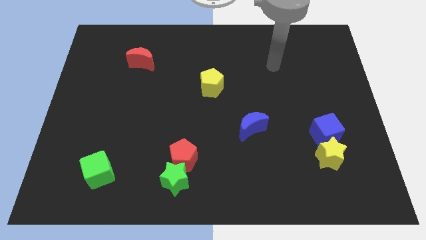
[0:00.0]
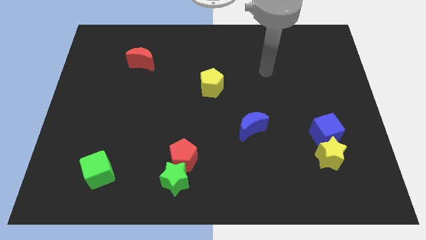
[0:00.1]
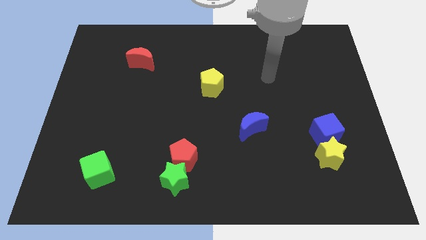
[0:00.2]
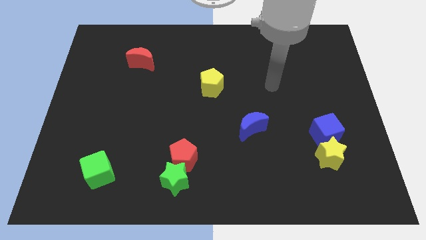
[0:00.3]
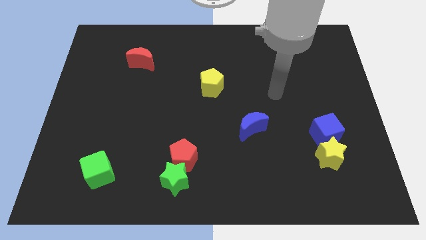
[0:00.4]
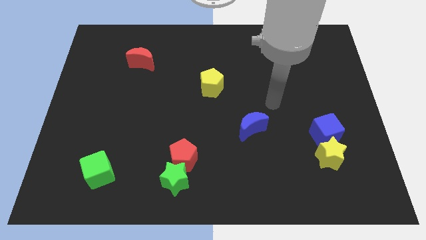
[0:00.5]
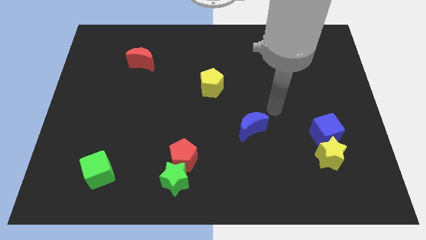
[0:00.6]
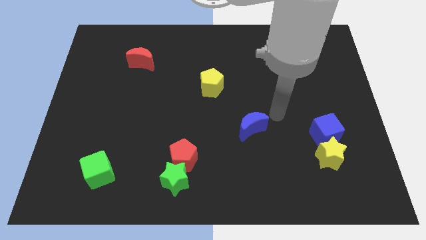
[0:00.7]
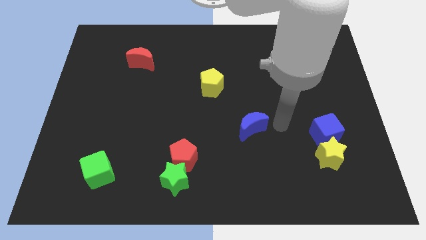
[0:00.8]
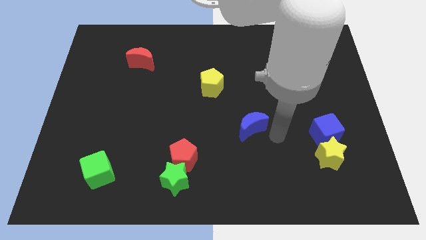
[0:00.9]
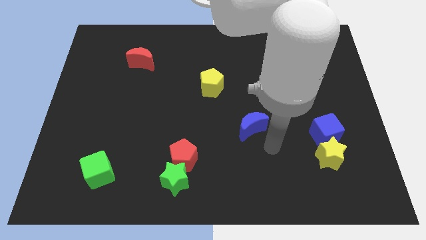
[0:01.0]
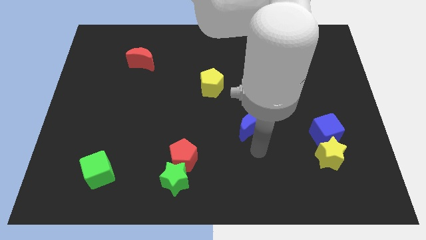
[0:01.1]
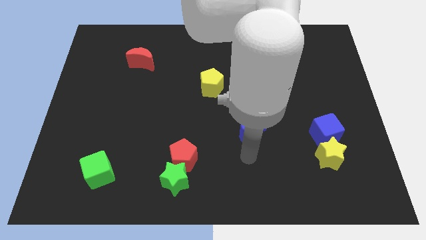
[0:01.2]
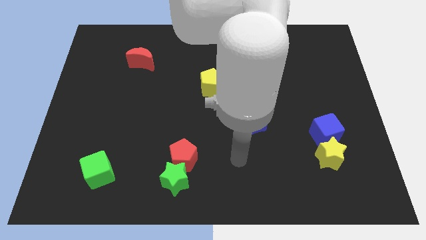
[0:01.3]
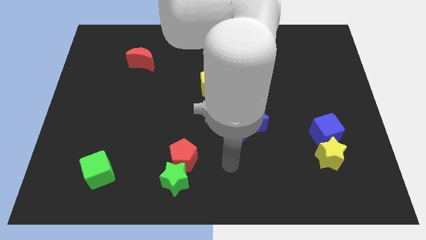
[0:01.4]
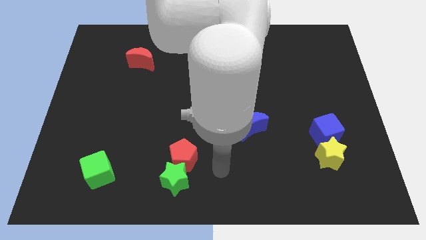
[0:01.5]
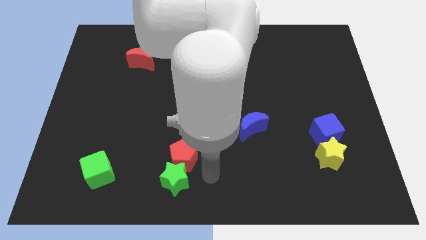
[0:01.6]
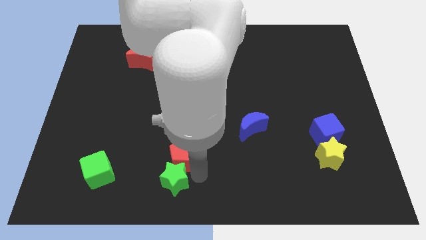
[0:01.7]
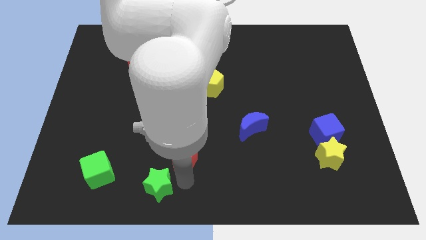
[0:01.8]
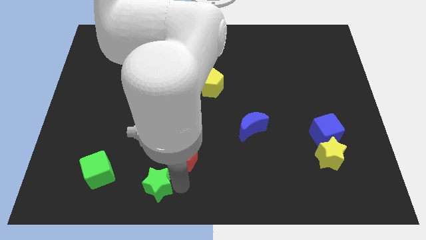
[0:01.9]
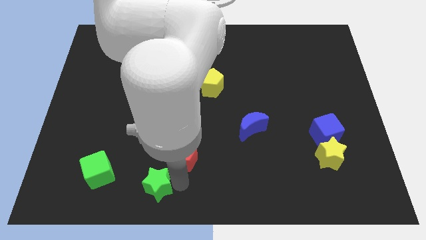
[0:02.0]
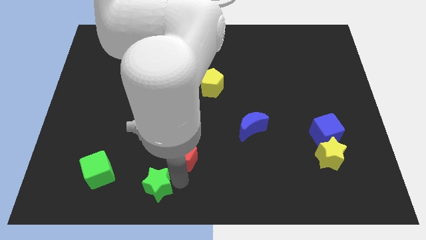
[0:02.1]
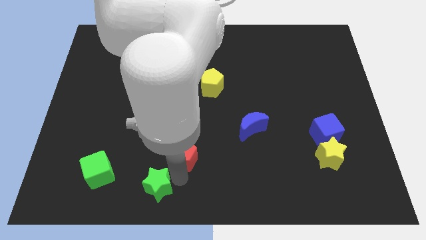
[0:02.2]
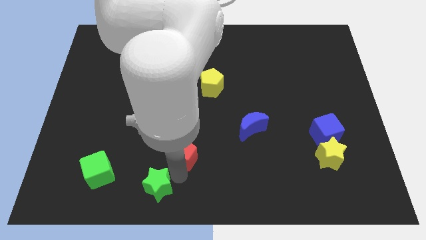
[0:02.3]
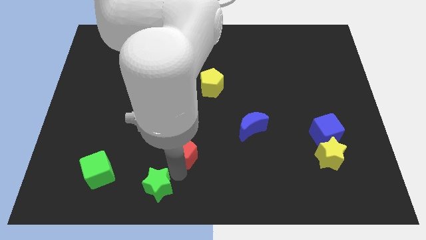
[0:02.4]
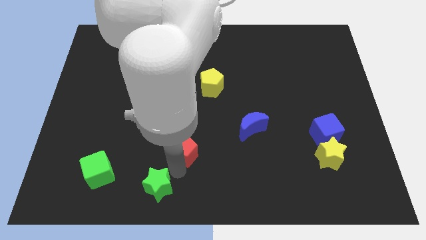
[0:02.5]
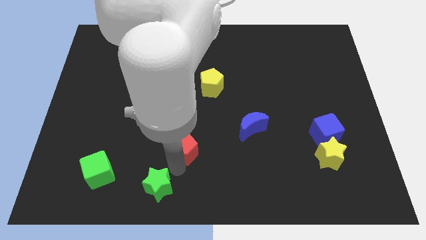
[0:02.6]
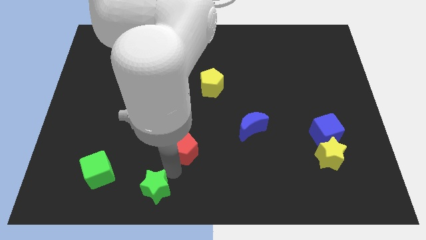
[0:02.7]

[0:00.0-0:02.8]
pull the red pentagon apart from the green star

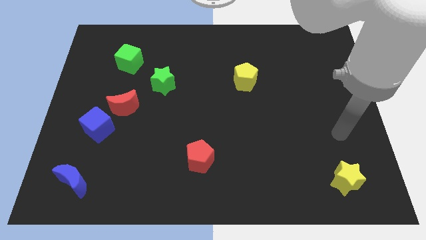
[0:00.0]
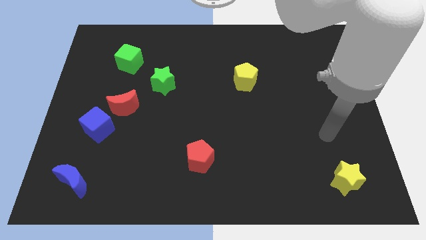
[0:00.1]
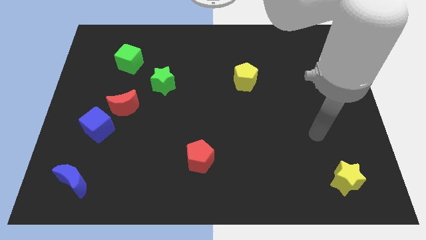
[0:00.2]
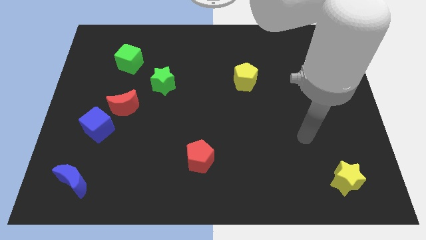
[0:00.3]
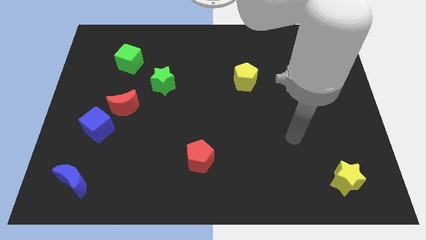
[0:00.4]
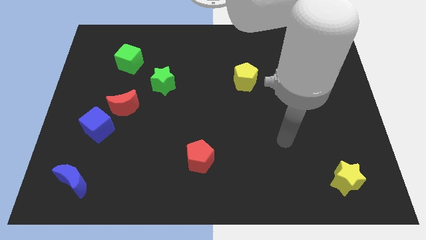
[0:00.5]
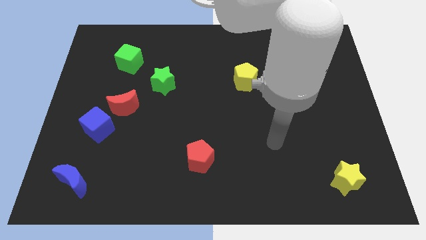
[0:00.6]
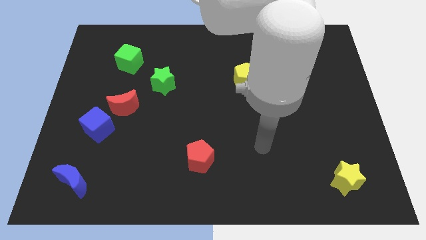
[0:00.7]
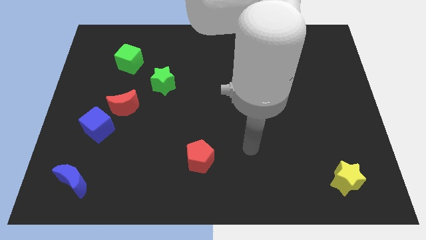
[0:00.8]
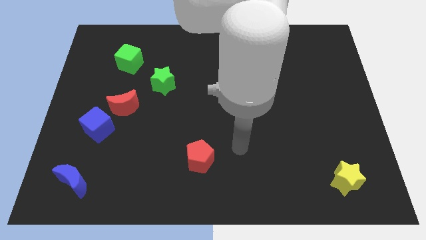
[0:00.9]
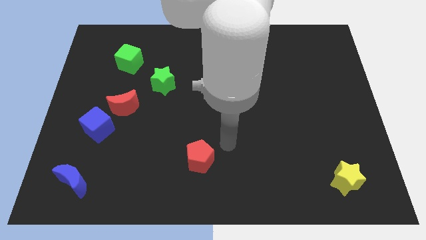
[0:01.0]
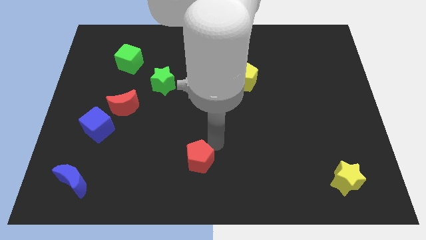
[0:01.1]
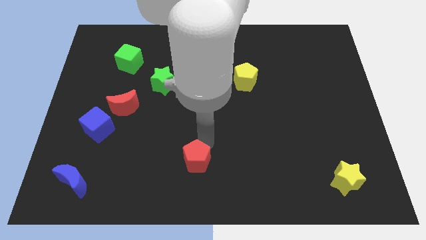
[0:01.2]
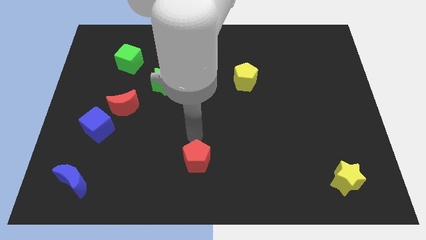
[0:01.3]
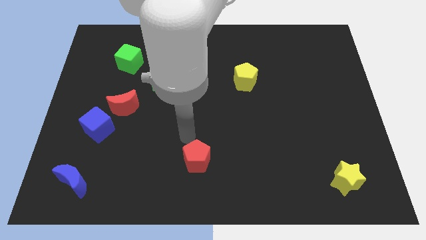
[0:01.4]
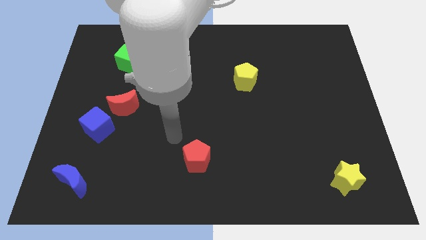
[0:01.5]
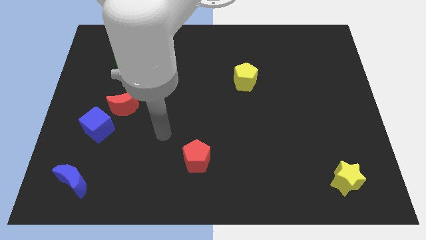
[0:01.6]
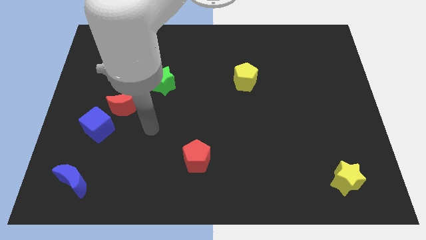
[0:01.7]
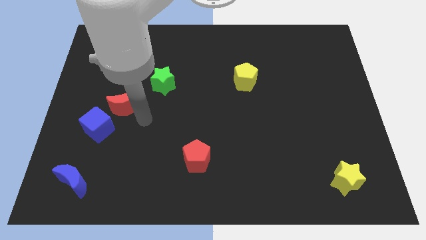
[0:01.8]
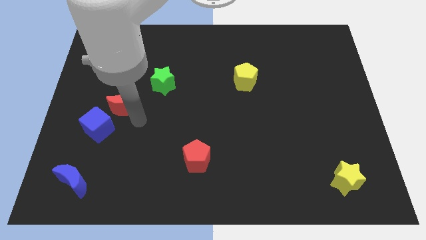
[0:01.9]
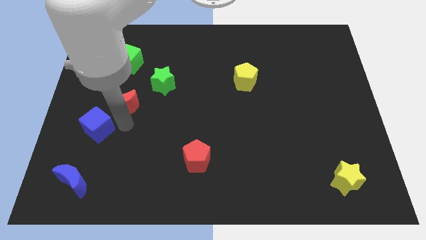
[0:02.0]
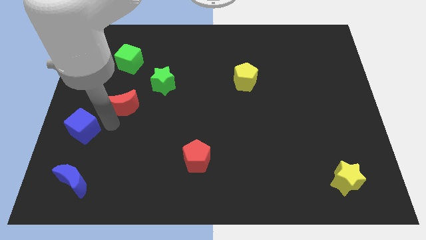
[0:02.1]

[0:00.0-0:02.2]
separate the red moon from the blue cube

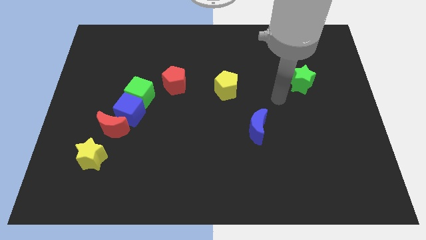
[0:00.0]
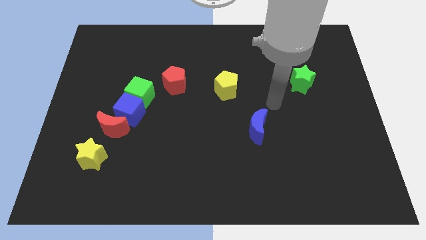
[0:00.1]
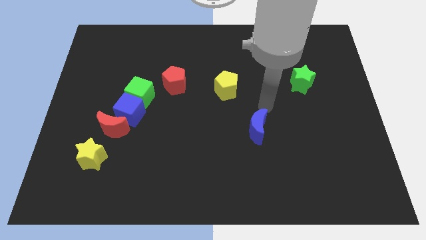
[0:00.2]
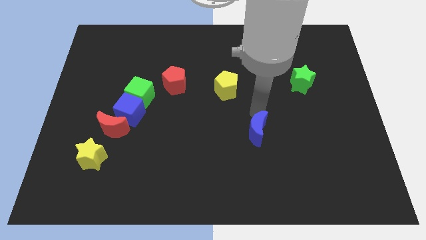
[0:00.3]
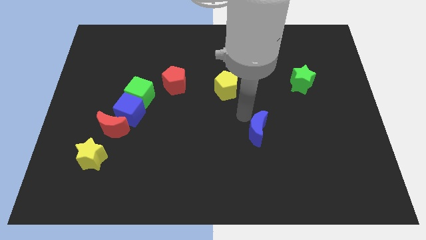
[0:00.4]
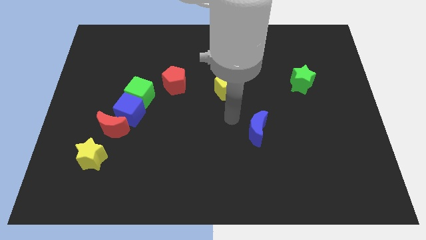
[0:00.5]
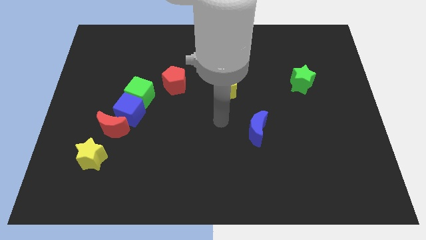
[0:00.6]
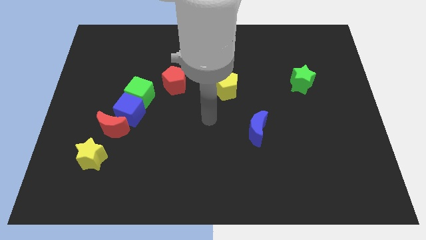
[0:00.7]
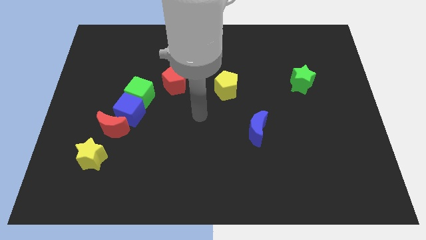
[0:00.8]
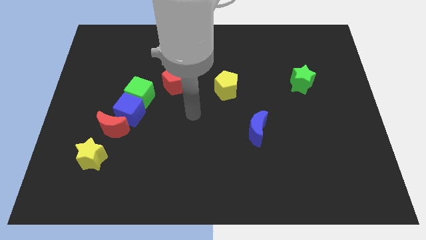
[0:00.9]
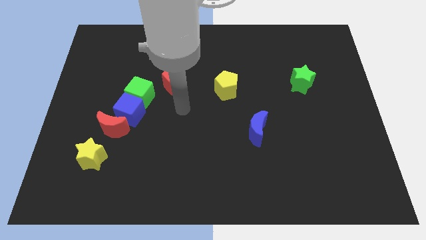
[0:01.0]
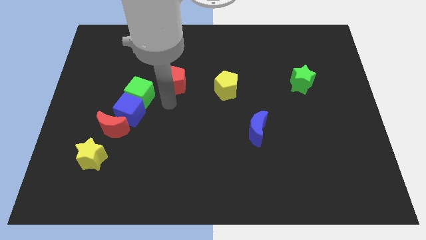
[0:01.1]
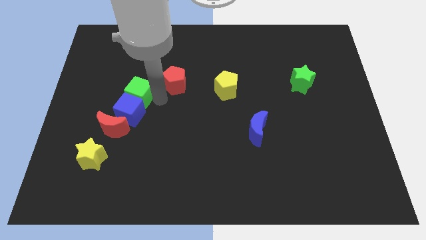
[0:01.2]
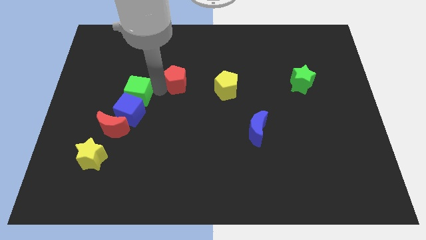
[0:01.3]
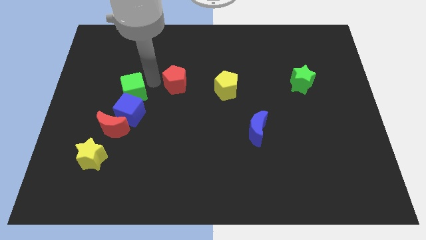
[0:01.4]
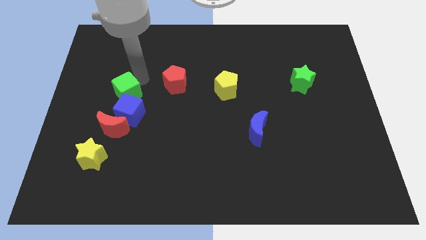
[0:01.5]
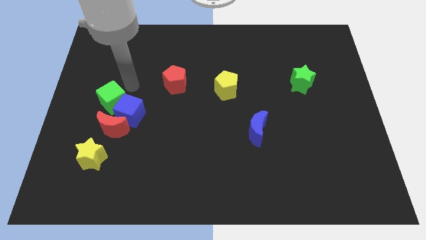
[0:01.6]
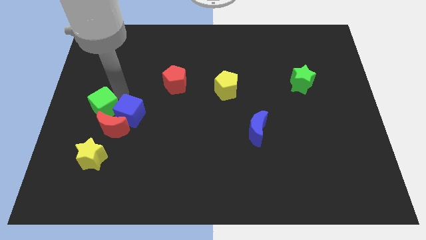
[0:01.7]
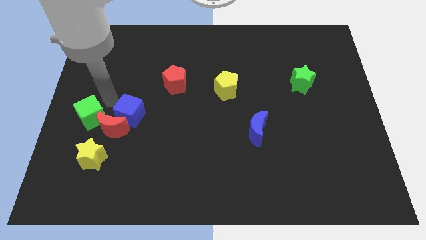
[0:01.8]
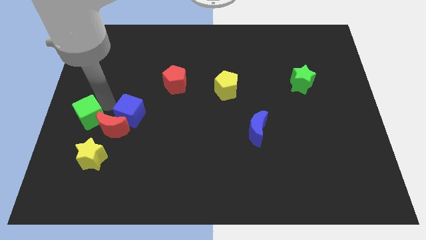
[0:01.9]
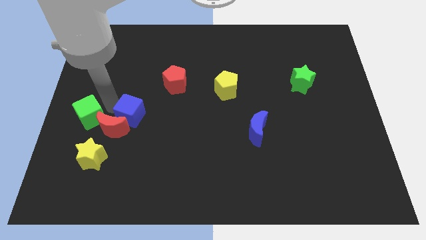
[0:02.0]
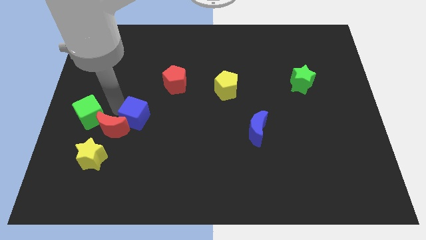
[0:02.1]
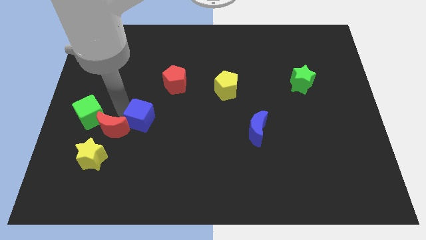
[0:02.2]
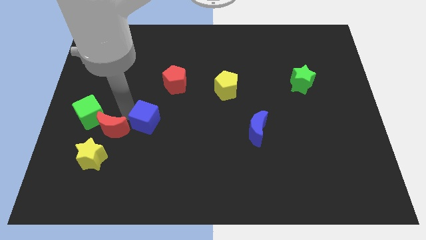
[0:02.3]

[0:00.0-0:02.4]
separate the blue cube from the green cube and red moon

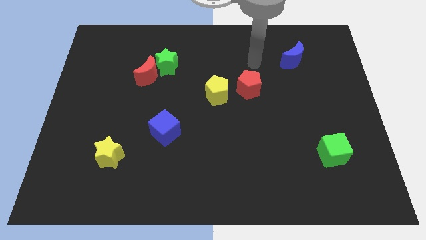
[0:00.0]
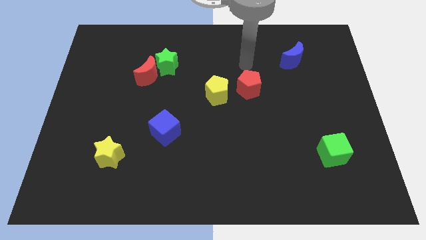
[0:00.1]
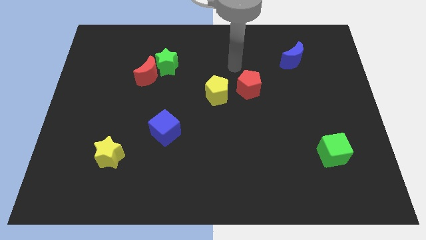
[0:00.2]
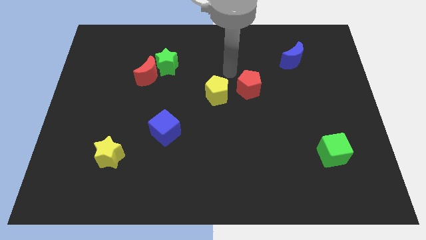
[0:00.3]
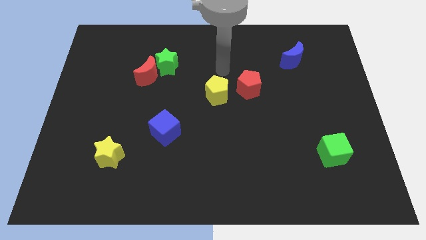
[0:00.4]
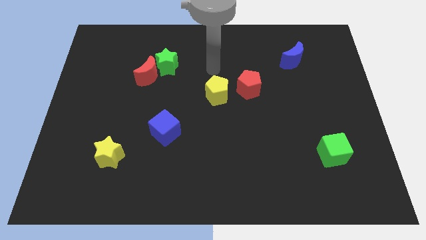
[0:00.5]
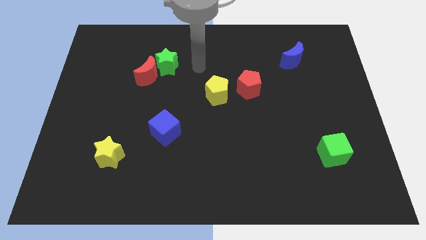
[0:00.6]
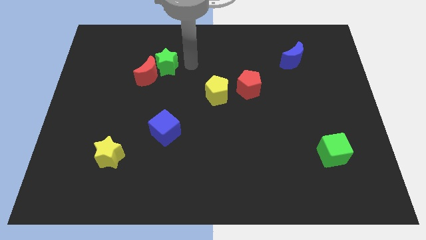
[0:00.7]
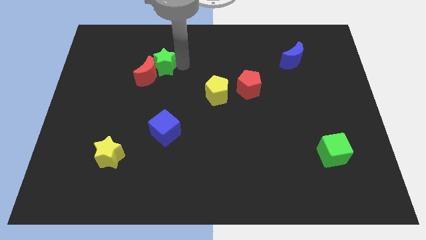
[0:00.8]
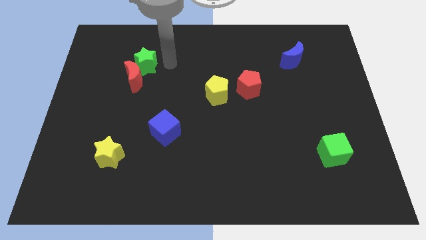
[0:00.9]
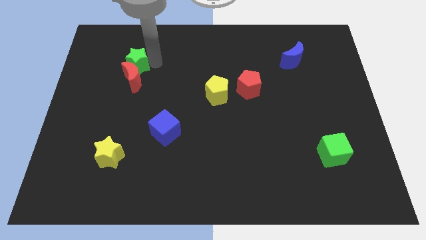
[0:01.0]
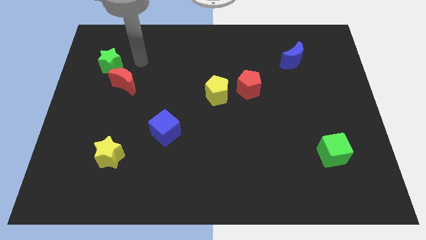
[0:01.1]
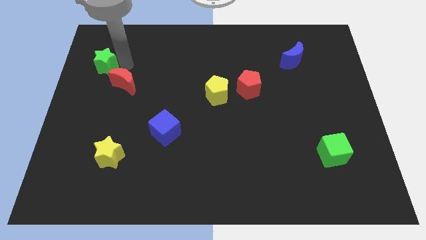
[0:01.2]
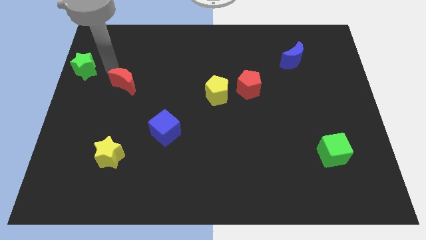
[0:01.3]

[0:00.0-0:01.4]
move the red moon away from the green star

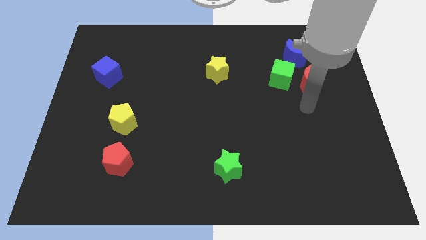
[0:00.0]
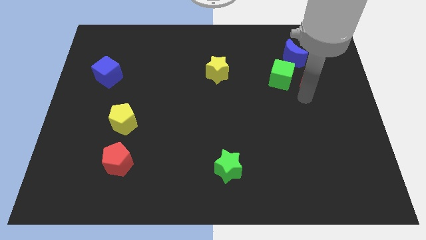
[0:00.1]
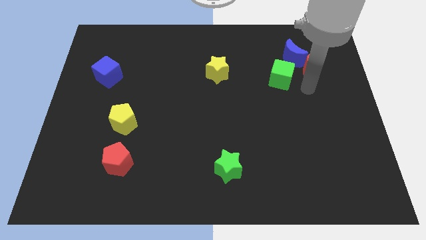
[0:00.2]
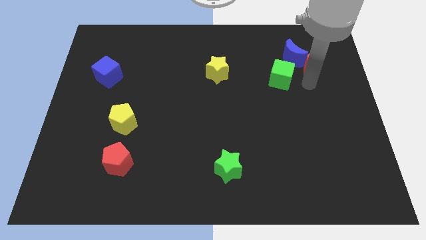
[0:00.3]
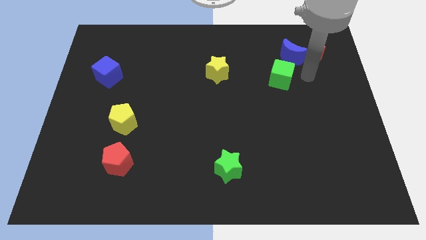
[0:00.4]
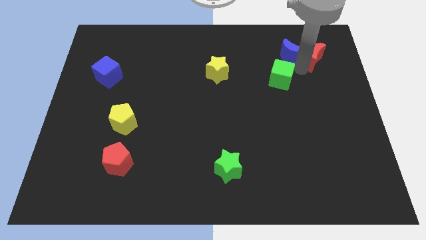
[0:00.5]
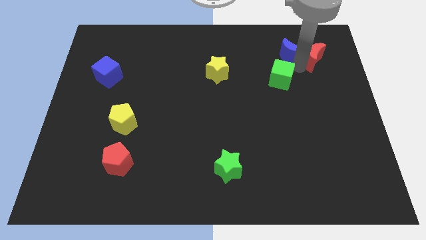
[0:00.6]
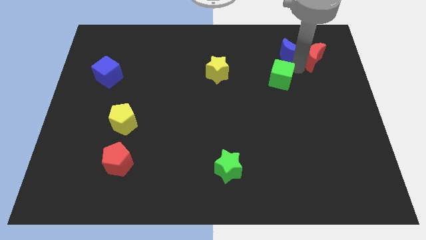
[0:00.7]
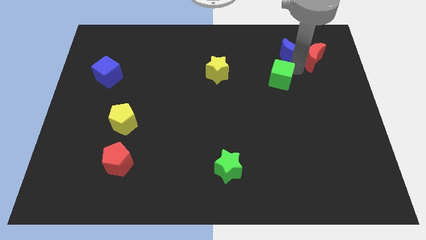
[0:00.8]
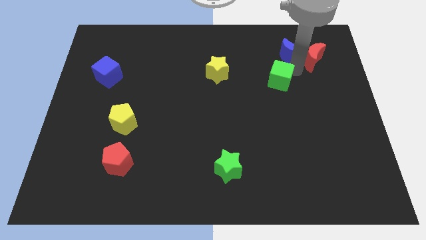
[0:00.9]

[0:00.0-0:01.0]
move the green cube away from the red moon and blue moon
